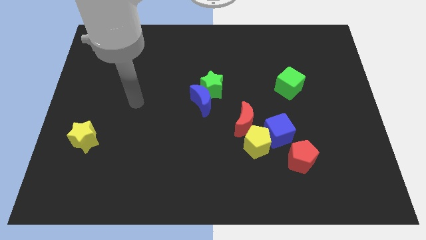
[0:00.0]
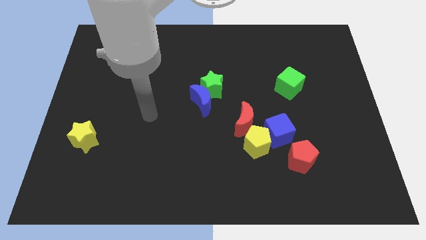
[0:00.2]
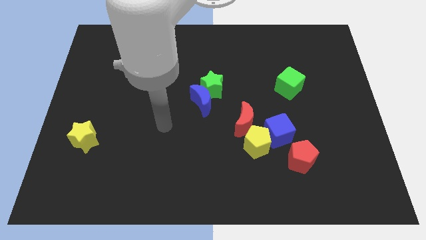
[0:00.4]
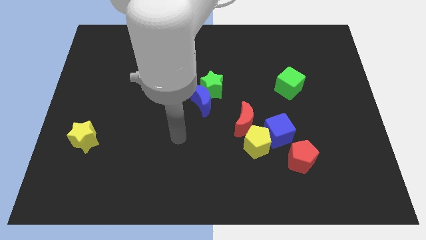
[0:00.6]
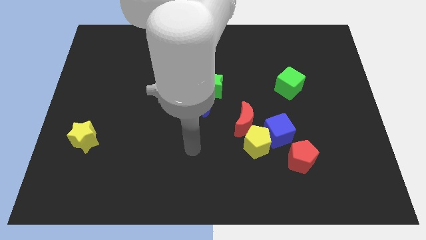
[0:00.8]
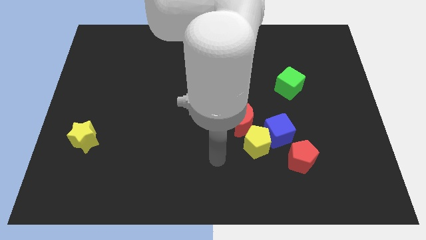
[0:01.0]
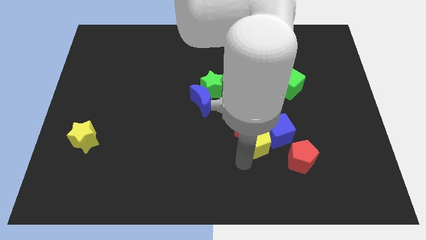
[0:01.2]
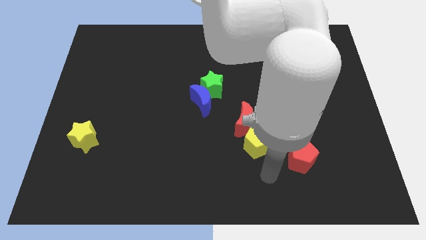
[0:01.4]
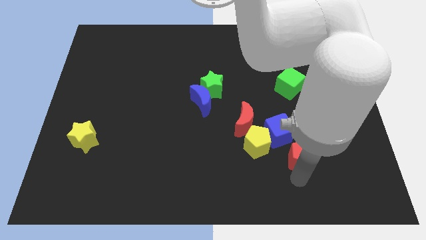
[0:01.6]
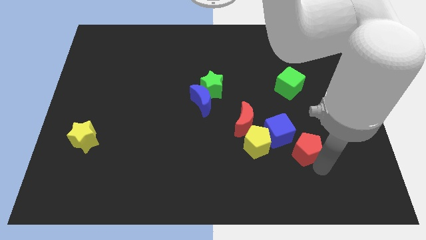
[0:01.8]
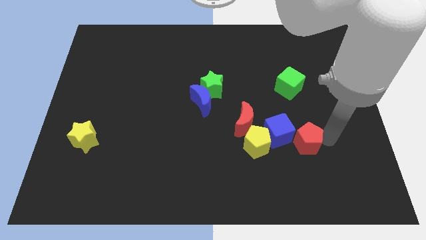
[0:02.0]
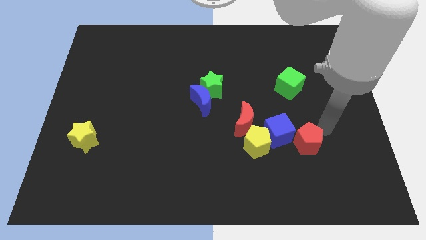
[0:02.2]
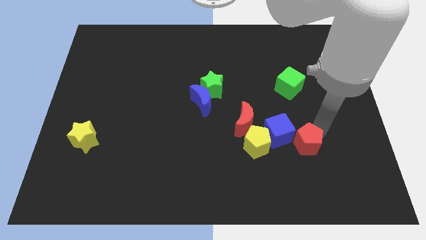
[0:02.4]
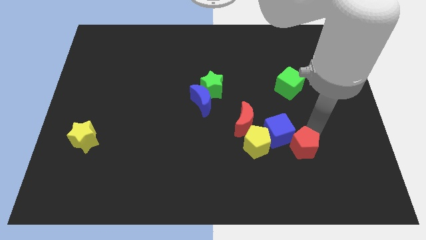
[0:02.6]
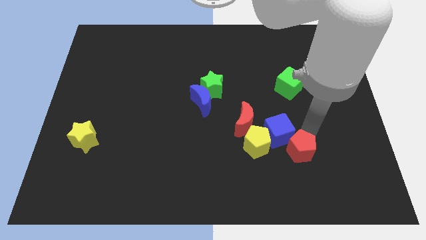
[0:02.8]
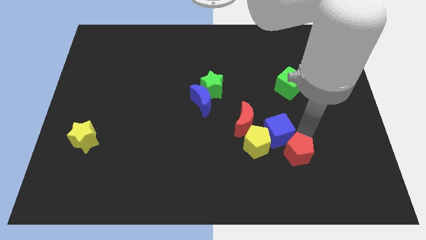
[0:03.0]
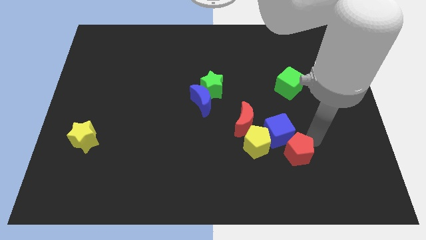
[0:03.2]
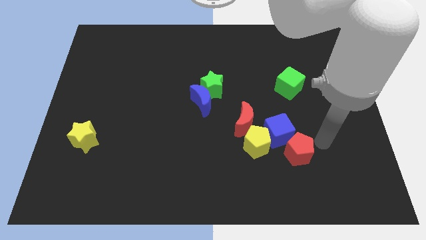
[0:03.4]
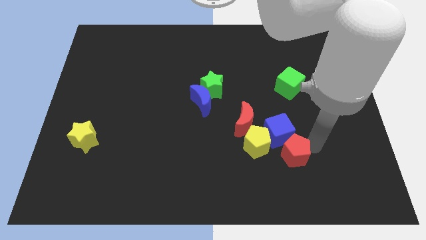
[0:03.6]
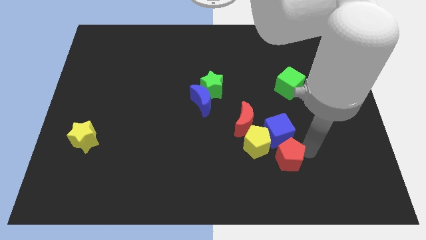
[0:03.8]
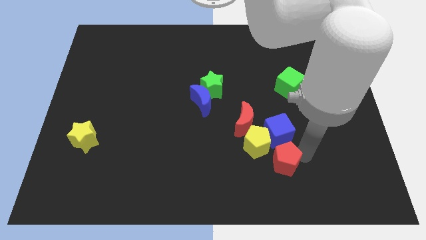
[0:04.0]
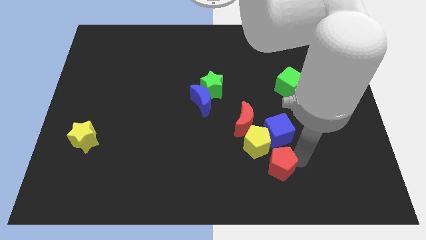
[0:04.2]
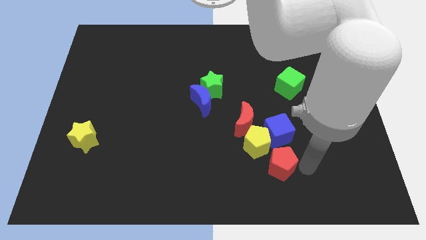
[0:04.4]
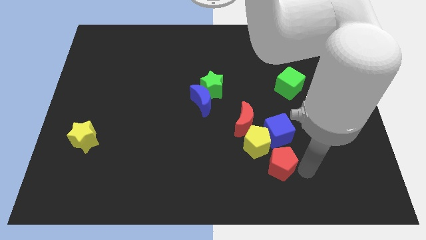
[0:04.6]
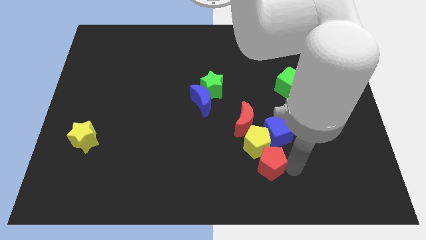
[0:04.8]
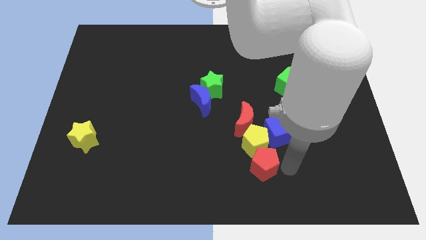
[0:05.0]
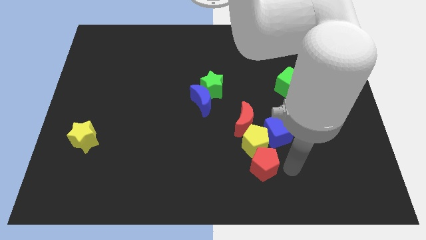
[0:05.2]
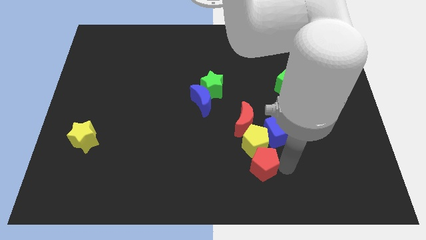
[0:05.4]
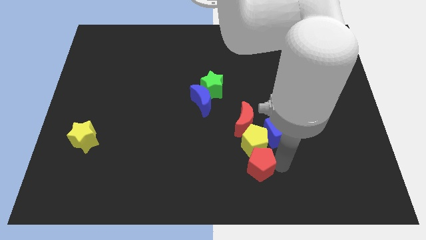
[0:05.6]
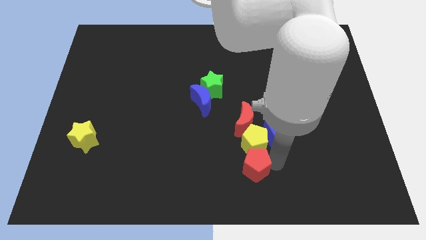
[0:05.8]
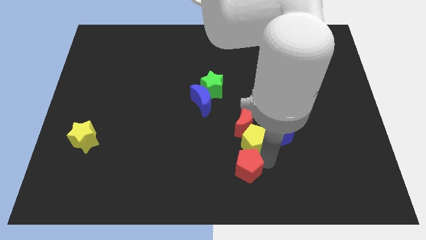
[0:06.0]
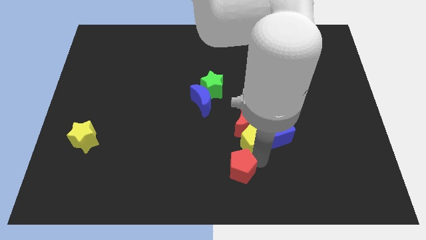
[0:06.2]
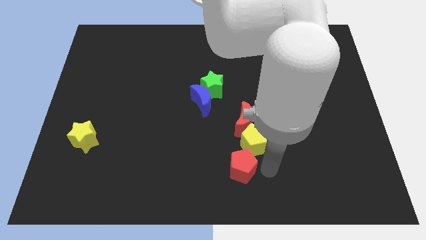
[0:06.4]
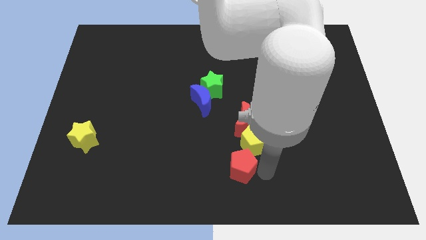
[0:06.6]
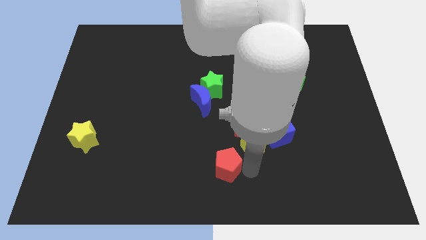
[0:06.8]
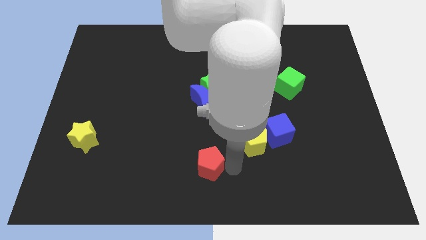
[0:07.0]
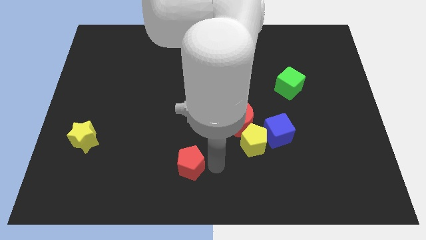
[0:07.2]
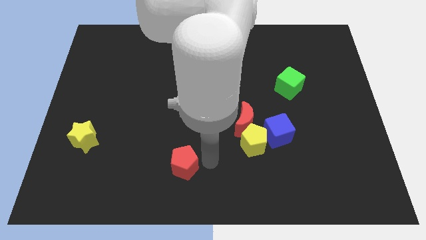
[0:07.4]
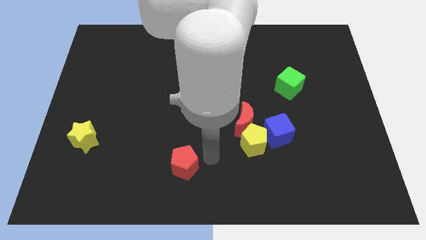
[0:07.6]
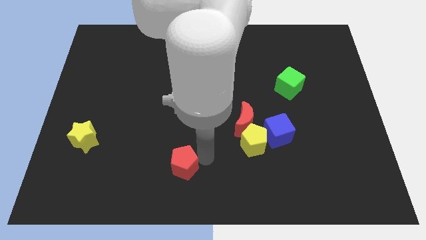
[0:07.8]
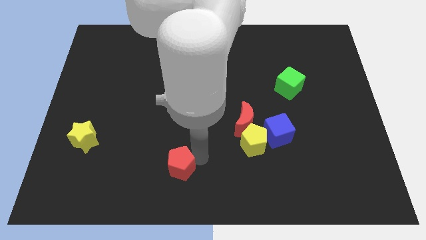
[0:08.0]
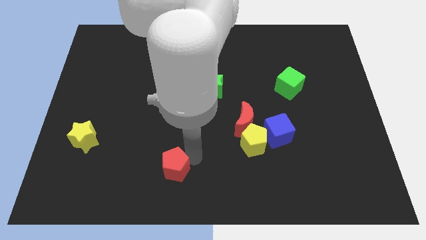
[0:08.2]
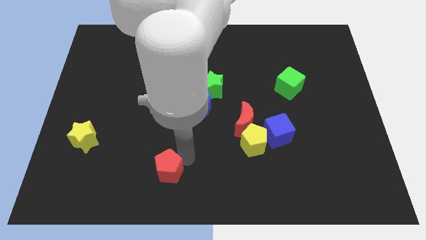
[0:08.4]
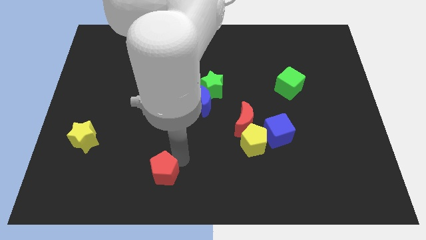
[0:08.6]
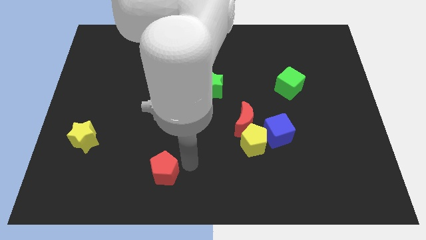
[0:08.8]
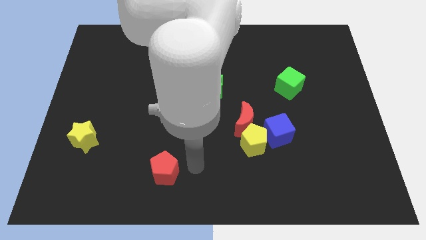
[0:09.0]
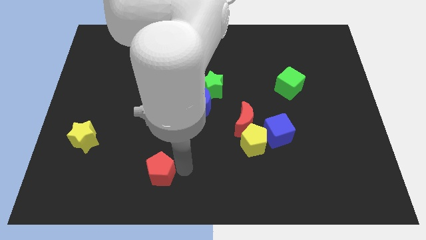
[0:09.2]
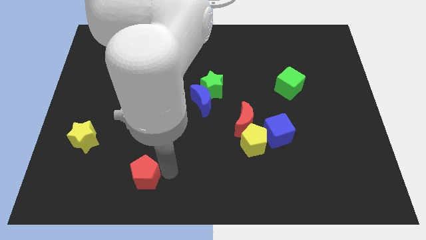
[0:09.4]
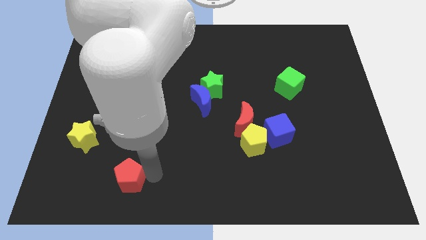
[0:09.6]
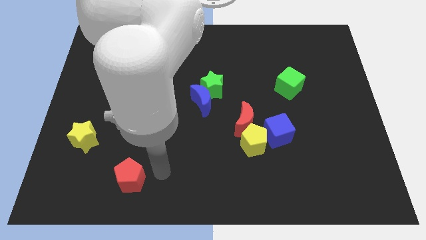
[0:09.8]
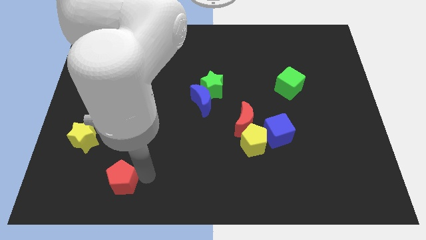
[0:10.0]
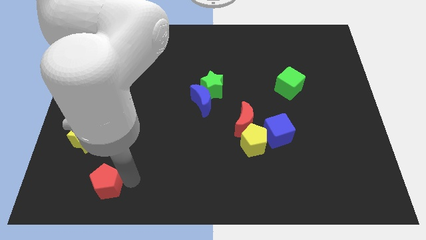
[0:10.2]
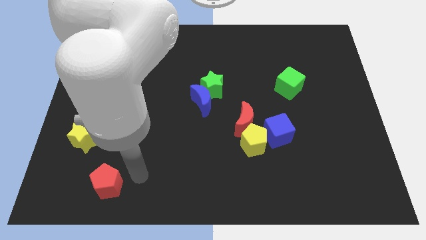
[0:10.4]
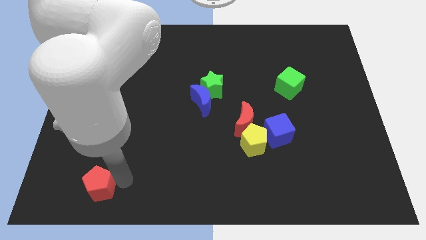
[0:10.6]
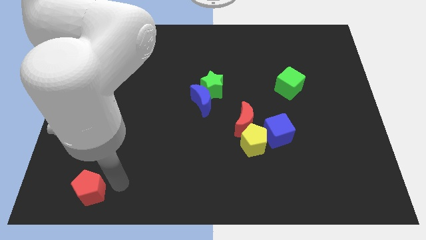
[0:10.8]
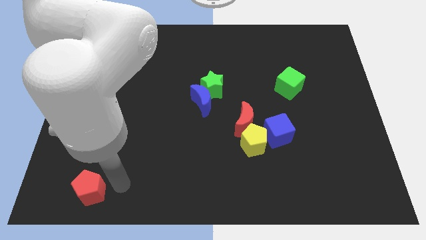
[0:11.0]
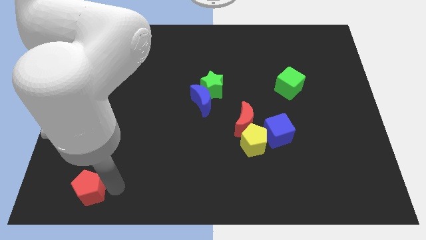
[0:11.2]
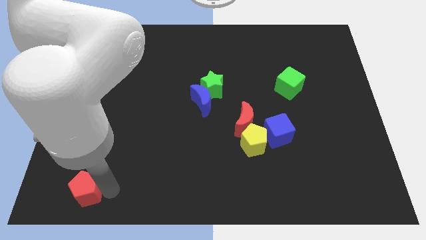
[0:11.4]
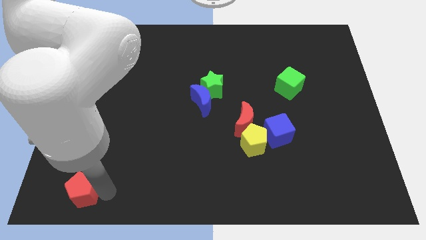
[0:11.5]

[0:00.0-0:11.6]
push the red pentagon to the bottom left of the board

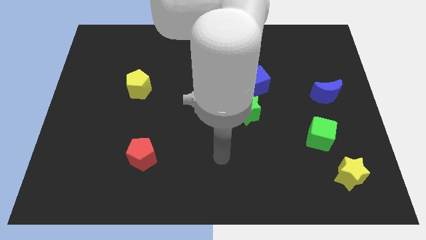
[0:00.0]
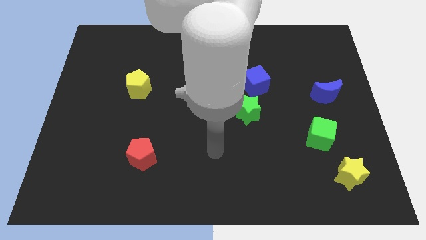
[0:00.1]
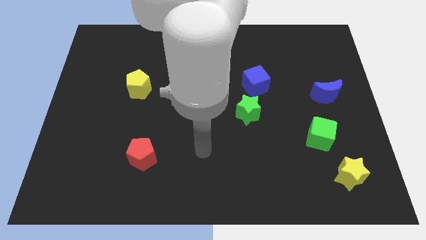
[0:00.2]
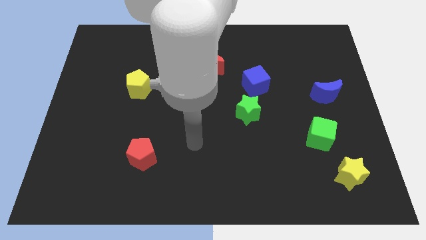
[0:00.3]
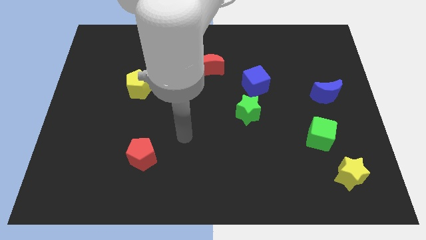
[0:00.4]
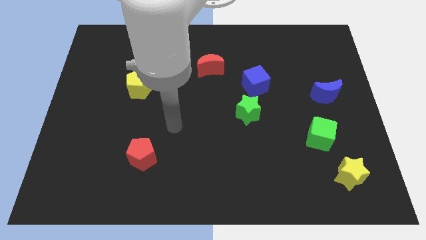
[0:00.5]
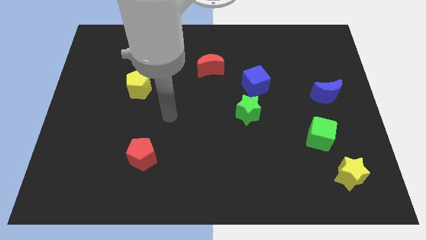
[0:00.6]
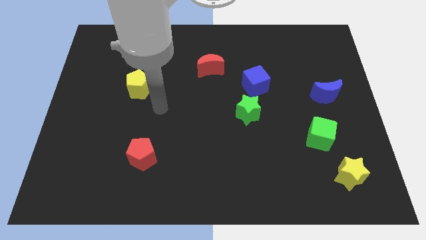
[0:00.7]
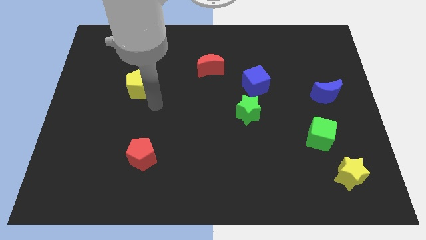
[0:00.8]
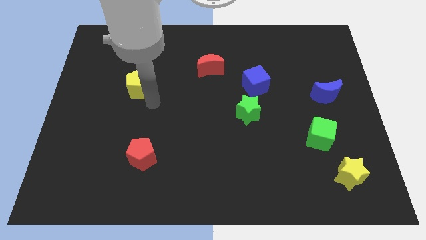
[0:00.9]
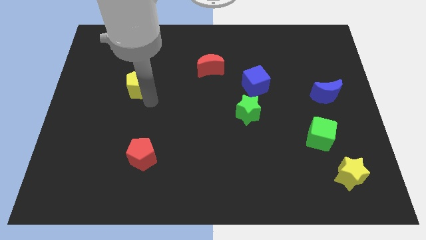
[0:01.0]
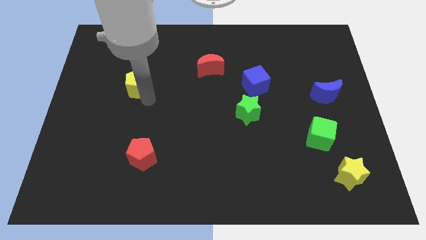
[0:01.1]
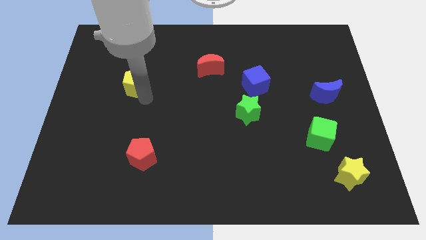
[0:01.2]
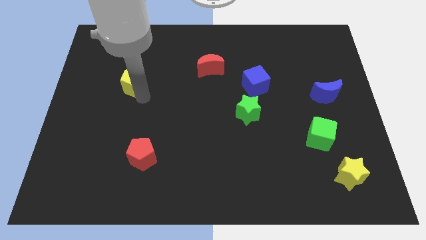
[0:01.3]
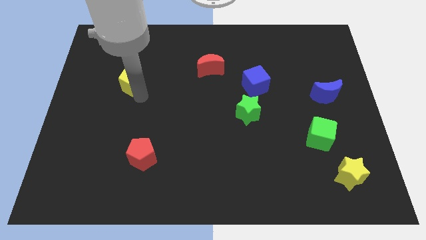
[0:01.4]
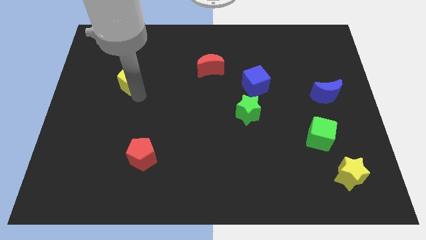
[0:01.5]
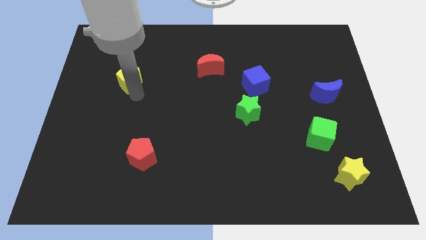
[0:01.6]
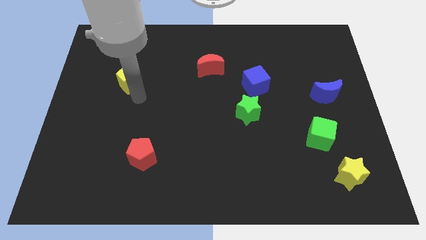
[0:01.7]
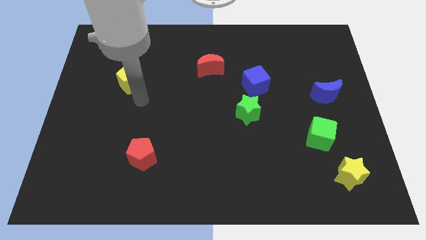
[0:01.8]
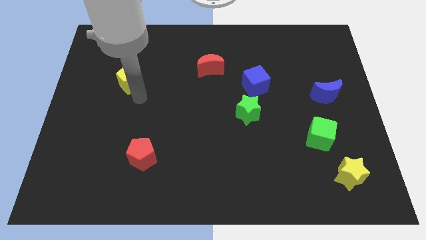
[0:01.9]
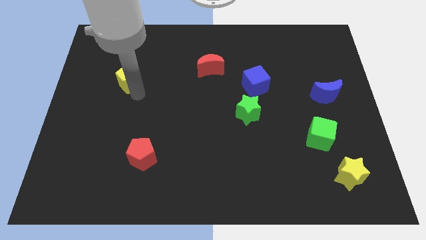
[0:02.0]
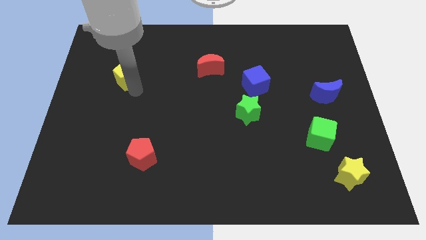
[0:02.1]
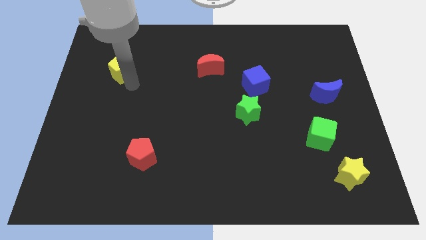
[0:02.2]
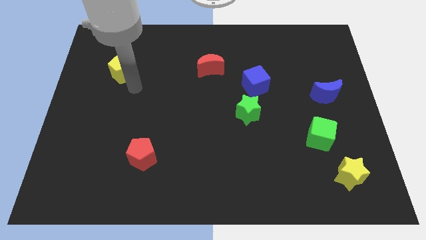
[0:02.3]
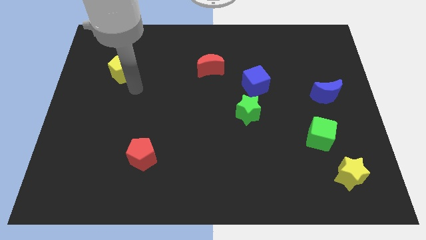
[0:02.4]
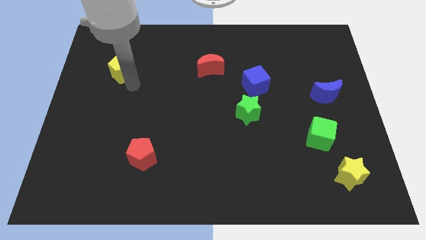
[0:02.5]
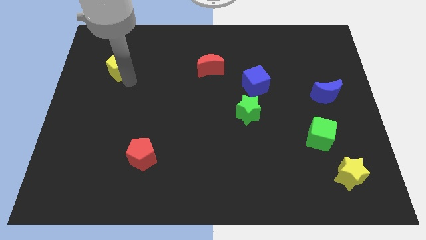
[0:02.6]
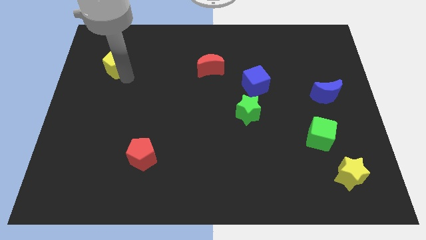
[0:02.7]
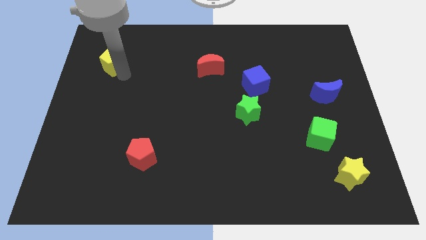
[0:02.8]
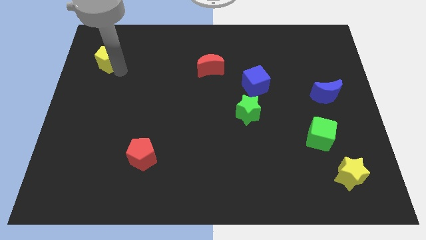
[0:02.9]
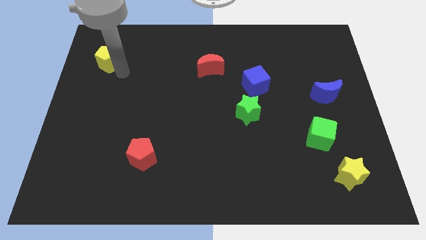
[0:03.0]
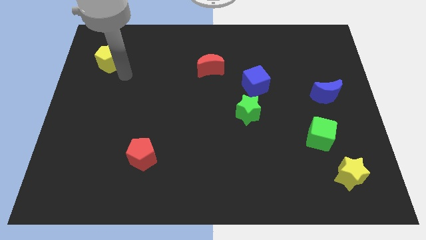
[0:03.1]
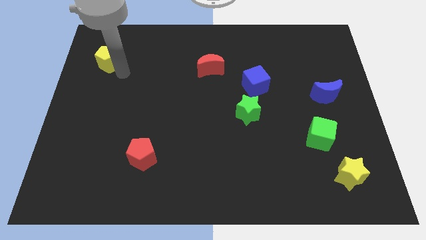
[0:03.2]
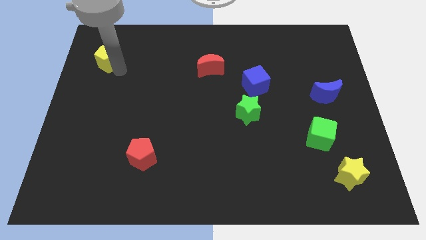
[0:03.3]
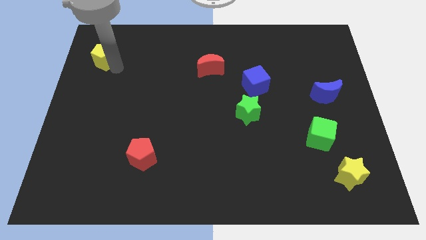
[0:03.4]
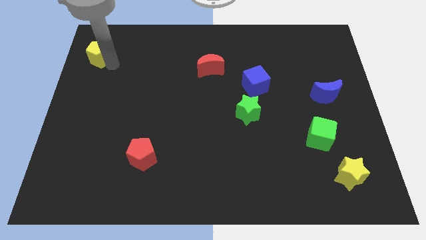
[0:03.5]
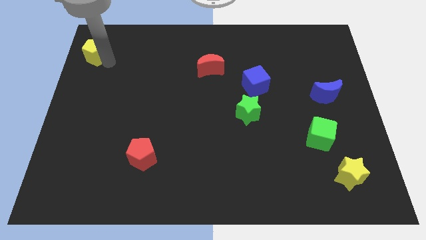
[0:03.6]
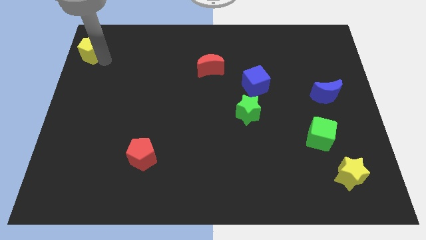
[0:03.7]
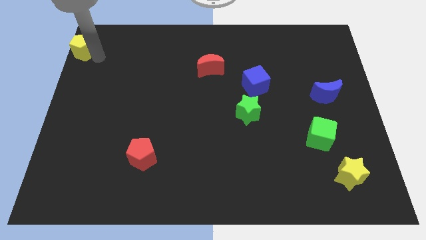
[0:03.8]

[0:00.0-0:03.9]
put the yellow pentagon to the top left
